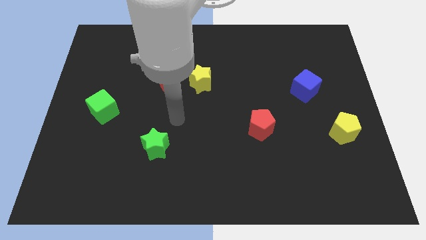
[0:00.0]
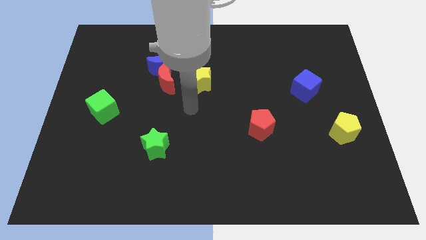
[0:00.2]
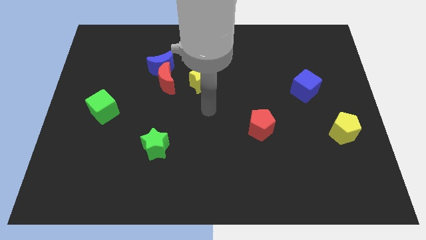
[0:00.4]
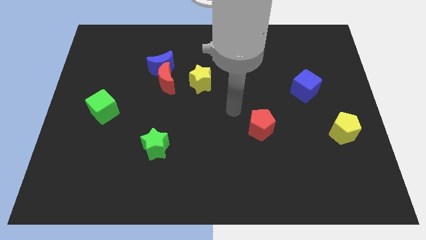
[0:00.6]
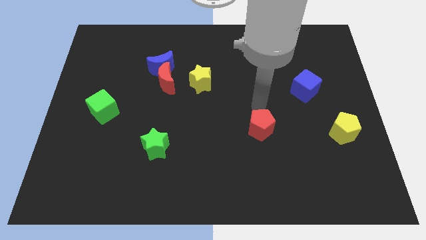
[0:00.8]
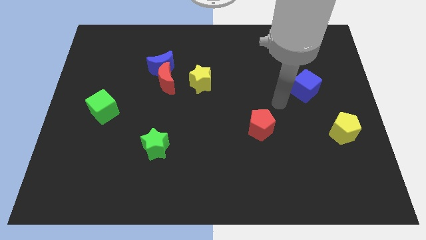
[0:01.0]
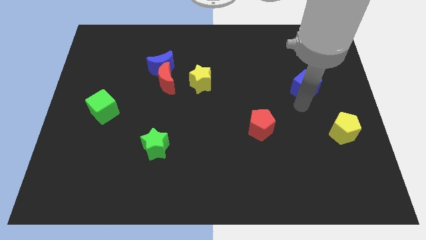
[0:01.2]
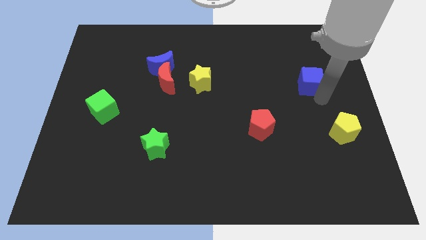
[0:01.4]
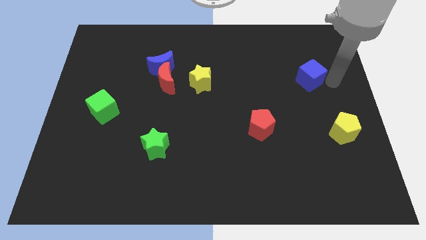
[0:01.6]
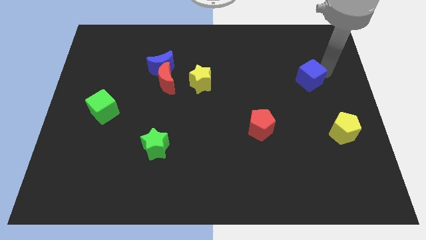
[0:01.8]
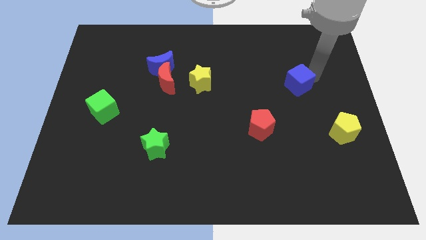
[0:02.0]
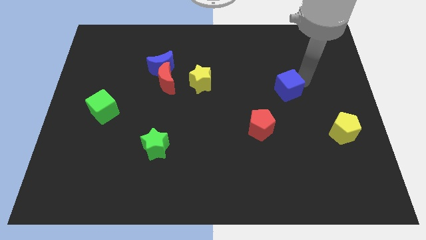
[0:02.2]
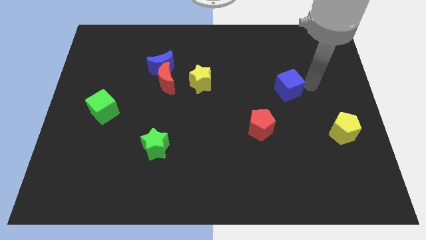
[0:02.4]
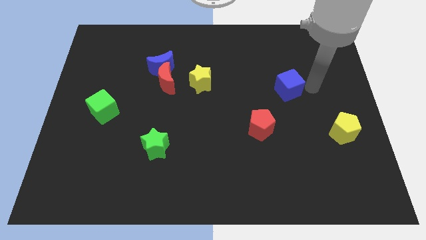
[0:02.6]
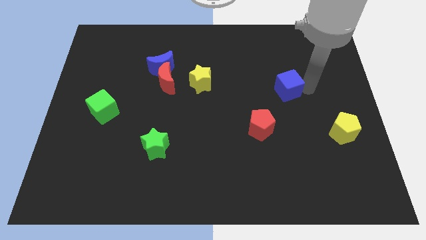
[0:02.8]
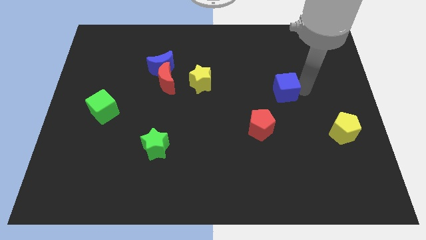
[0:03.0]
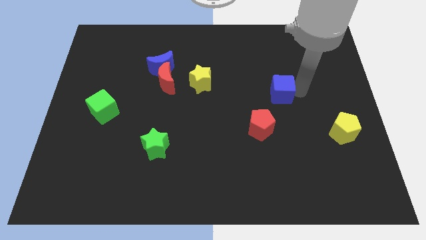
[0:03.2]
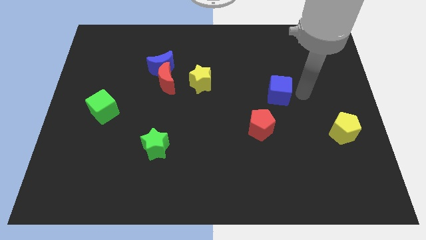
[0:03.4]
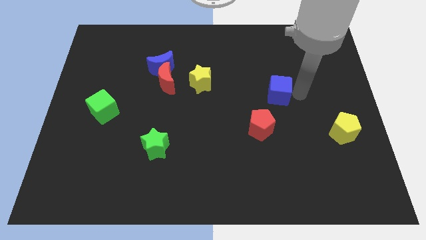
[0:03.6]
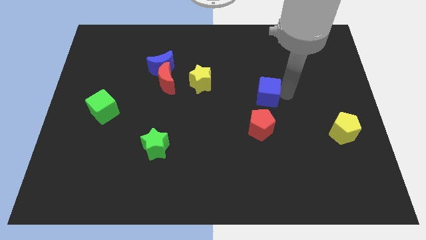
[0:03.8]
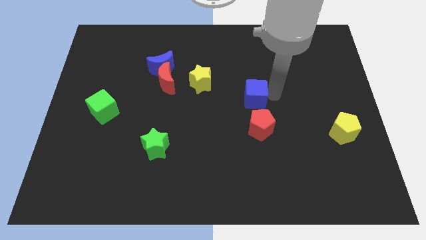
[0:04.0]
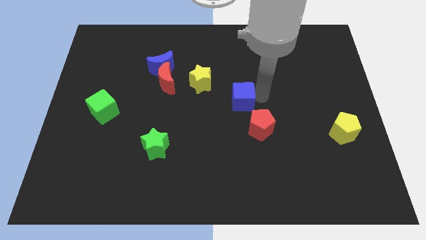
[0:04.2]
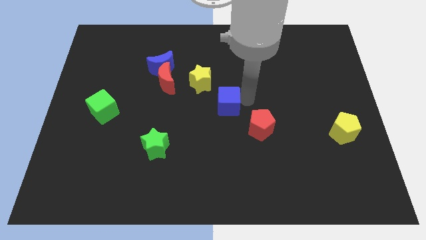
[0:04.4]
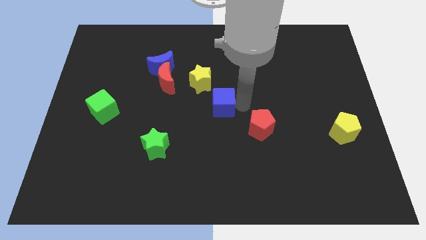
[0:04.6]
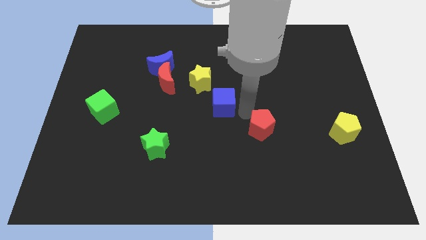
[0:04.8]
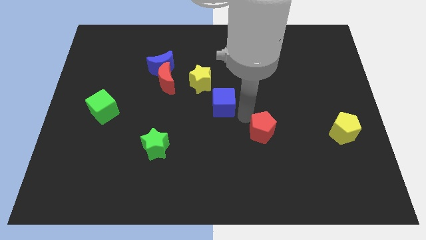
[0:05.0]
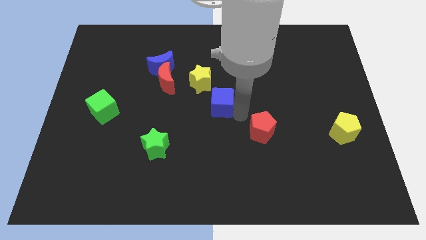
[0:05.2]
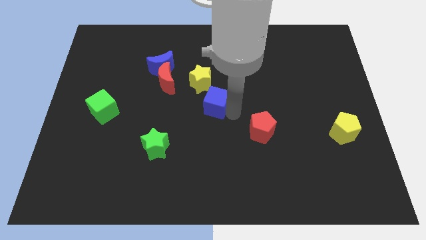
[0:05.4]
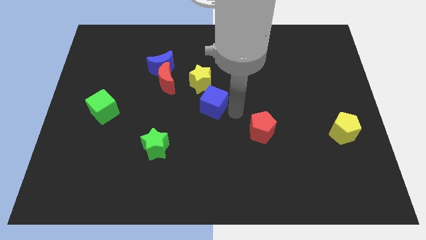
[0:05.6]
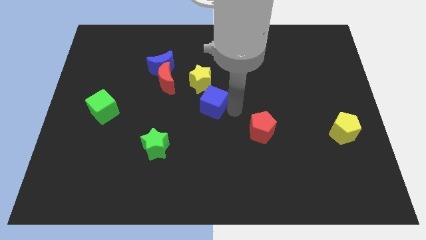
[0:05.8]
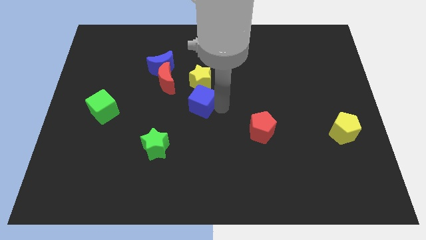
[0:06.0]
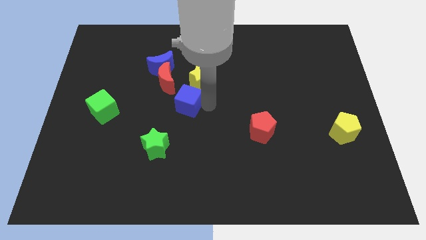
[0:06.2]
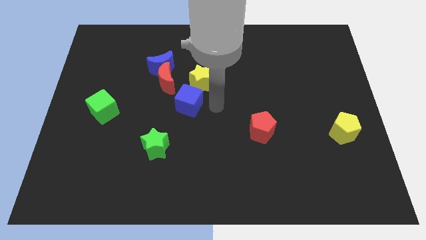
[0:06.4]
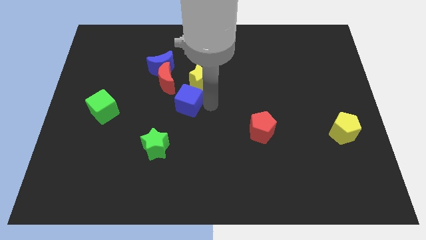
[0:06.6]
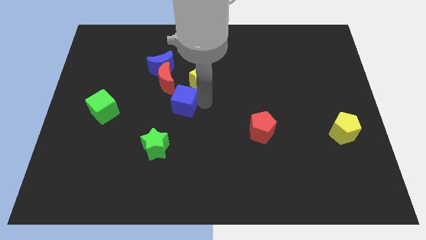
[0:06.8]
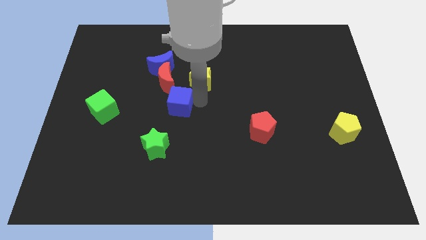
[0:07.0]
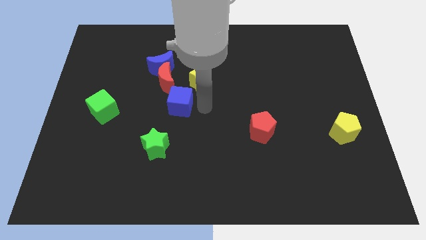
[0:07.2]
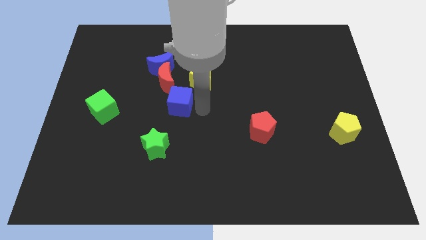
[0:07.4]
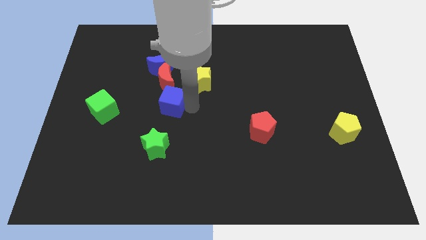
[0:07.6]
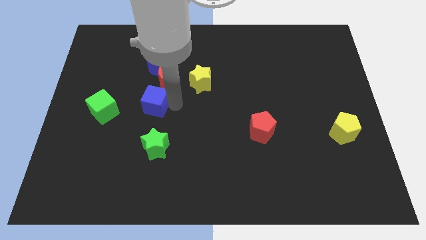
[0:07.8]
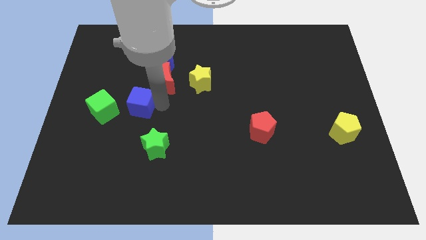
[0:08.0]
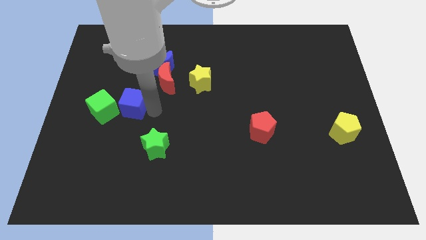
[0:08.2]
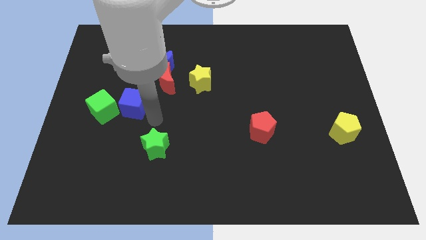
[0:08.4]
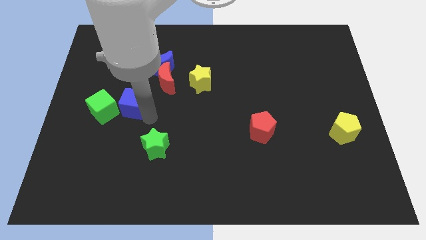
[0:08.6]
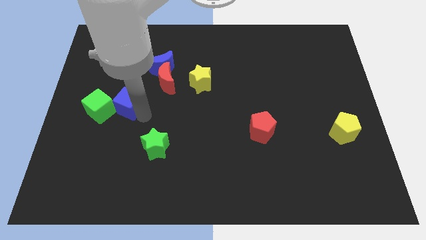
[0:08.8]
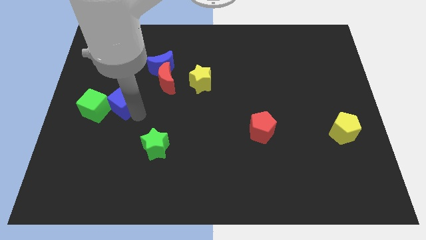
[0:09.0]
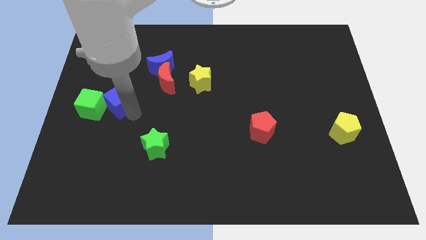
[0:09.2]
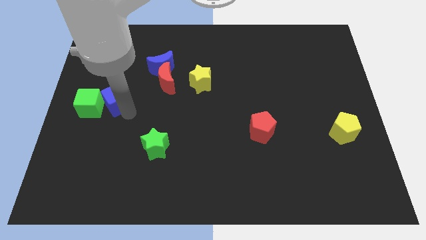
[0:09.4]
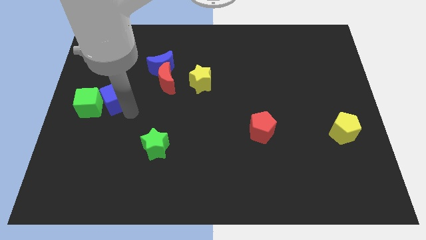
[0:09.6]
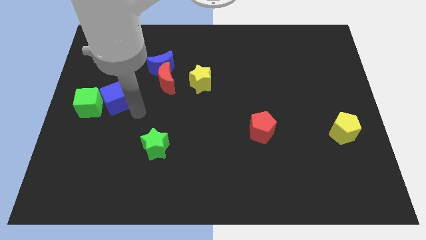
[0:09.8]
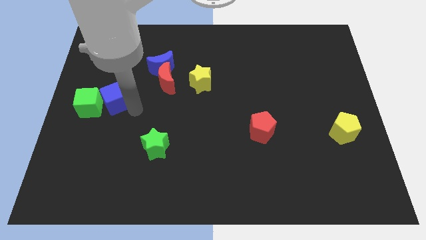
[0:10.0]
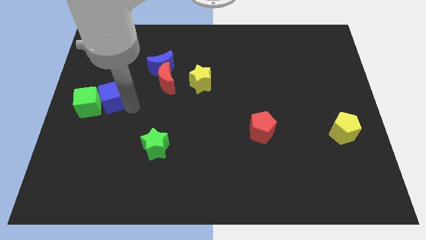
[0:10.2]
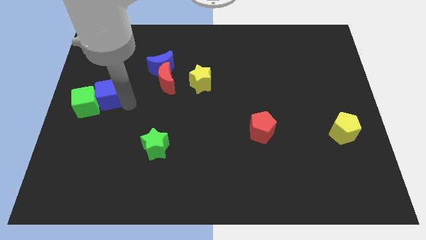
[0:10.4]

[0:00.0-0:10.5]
slide the blue cube to the left side

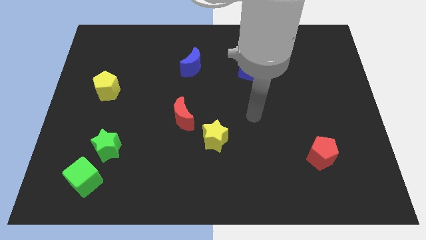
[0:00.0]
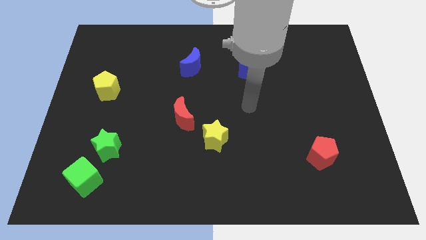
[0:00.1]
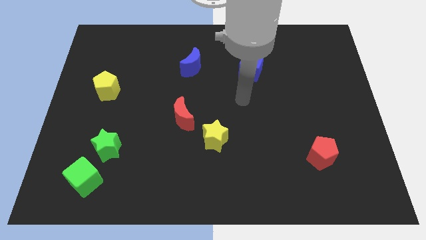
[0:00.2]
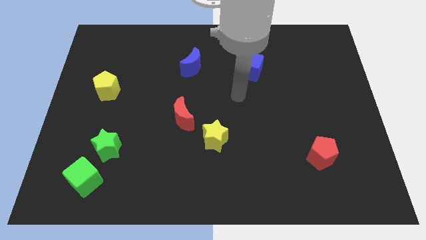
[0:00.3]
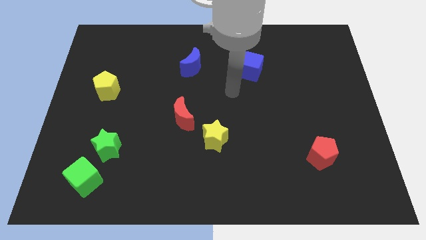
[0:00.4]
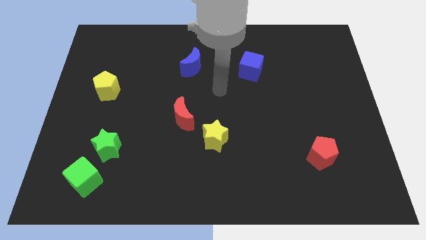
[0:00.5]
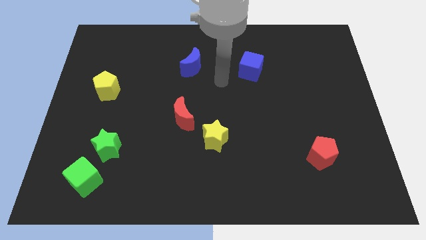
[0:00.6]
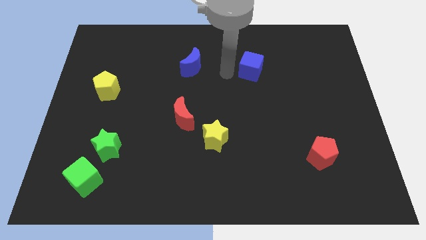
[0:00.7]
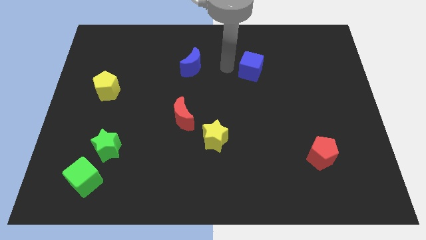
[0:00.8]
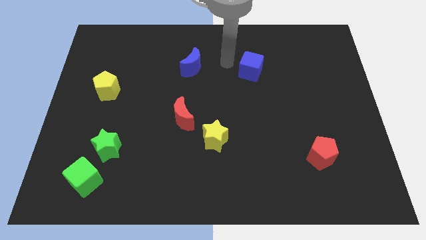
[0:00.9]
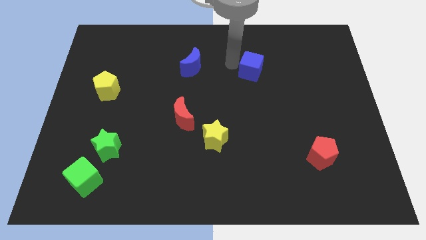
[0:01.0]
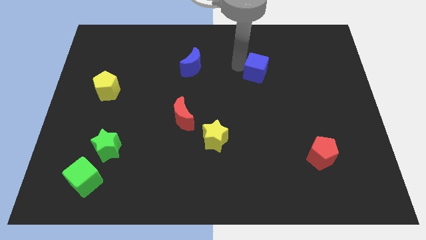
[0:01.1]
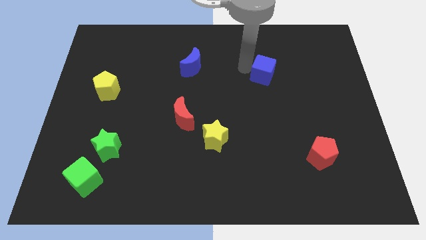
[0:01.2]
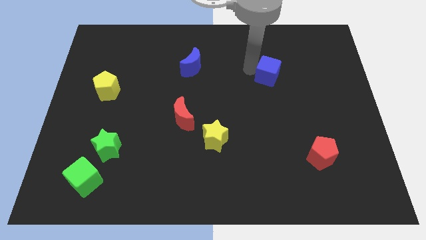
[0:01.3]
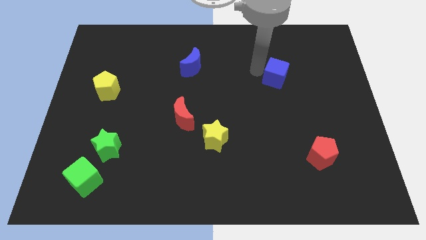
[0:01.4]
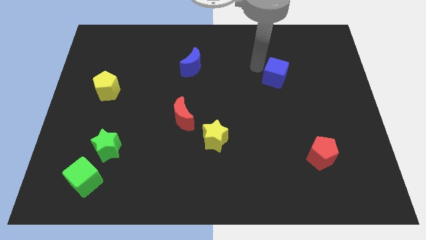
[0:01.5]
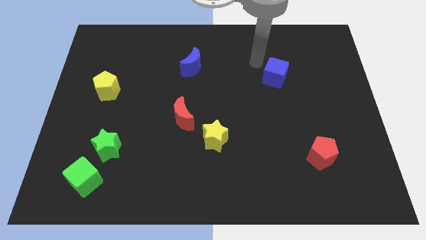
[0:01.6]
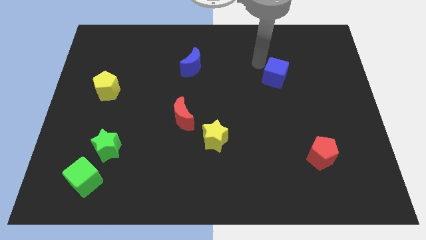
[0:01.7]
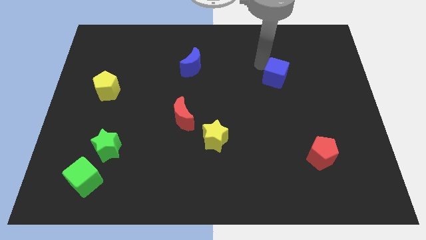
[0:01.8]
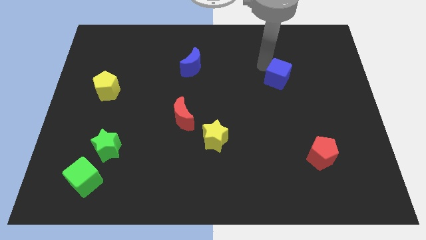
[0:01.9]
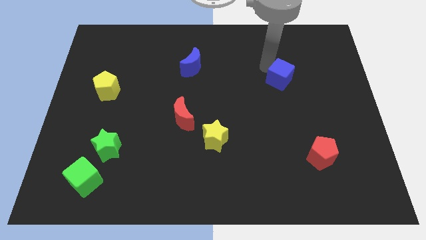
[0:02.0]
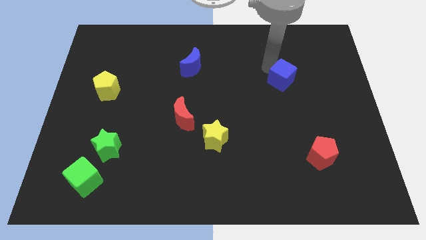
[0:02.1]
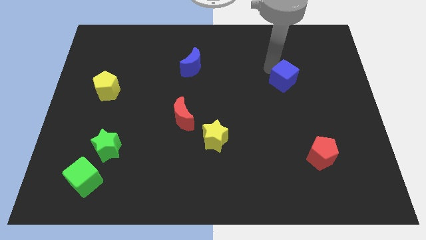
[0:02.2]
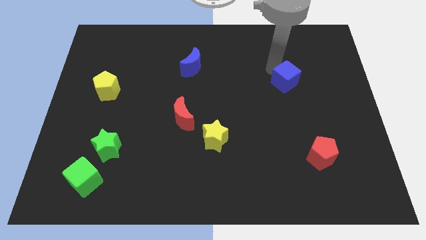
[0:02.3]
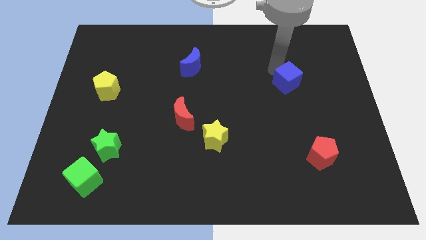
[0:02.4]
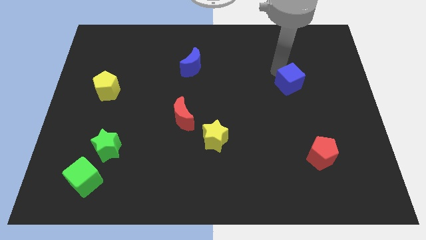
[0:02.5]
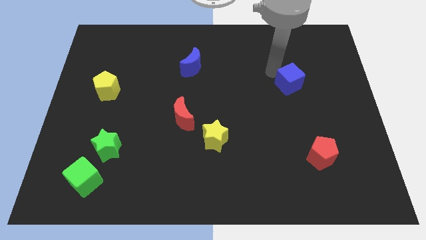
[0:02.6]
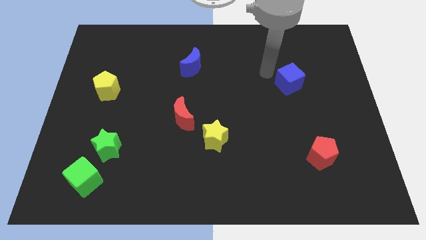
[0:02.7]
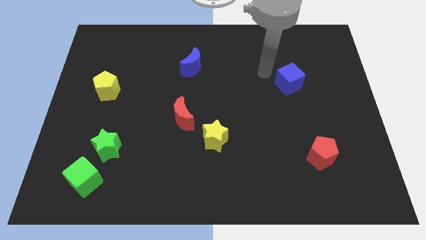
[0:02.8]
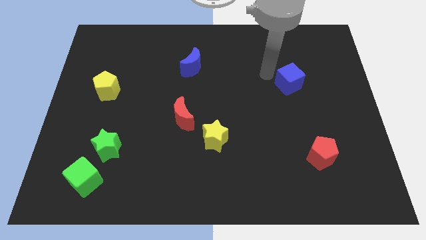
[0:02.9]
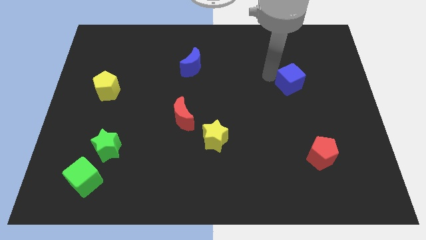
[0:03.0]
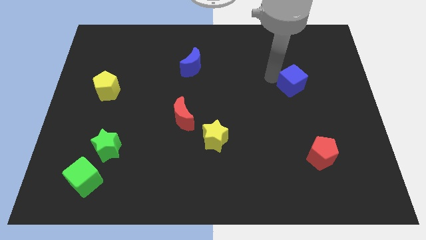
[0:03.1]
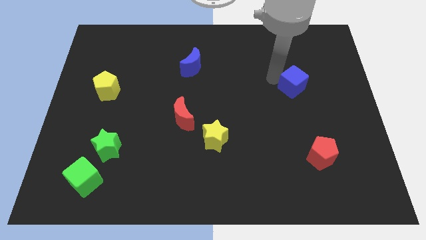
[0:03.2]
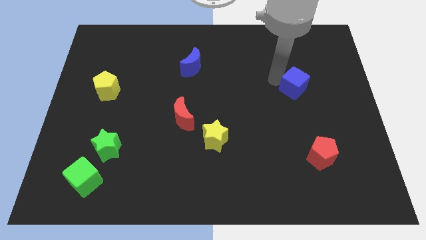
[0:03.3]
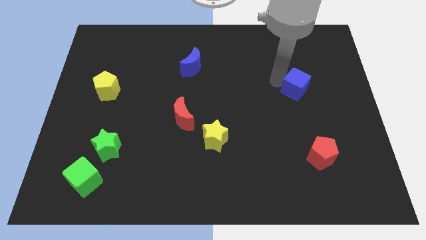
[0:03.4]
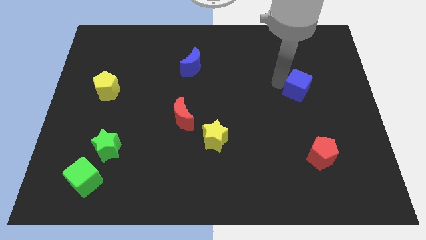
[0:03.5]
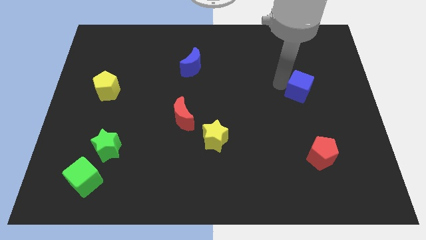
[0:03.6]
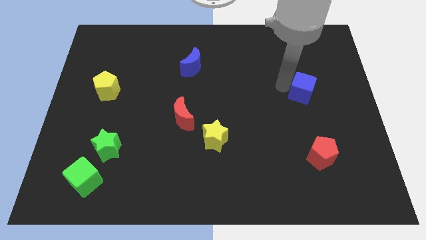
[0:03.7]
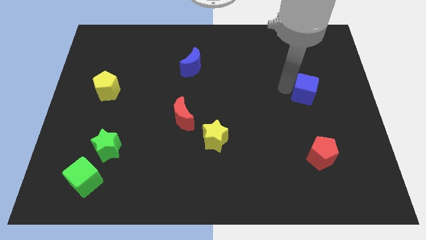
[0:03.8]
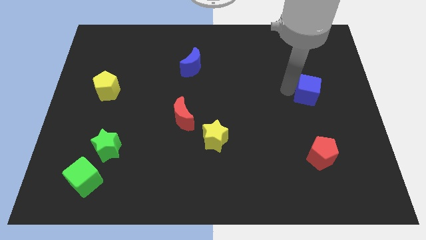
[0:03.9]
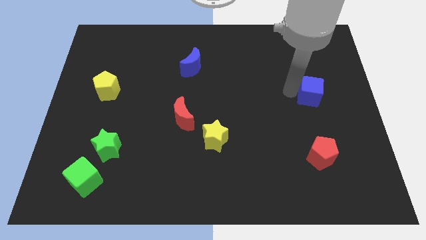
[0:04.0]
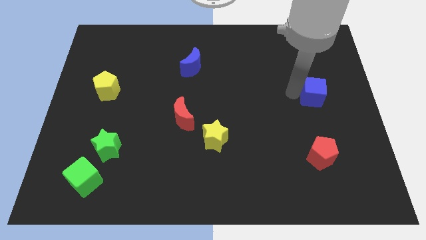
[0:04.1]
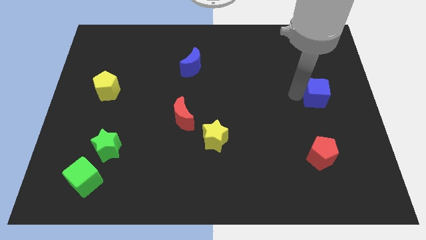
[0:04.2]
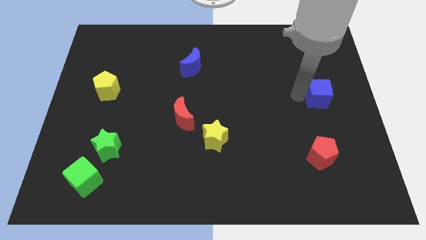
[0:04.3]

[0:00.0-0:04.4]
put the blue cube to the center right
